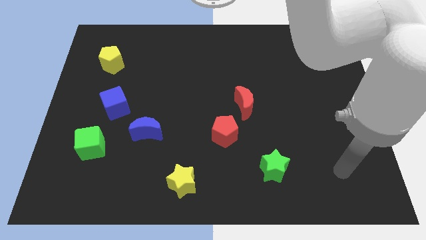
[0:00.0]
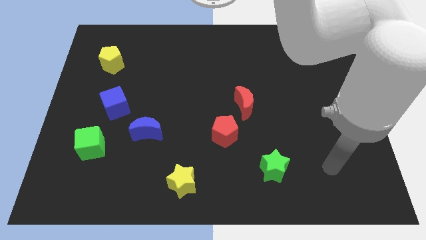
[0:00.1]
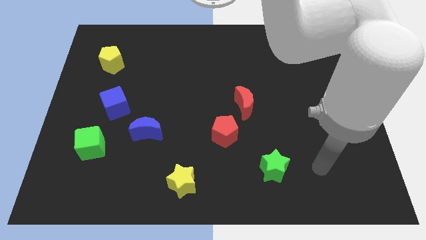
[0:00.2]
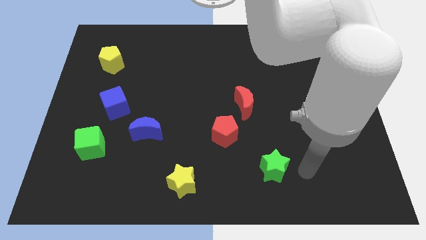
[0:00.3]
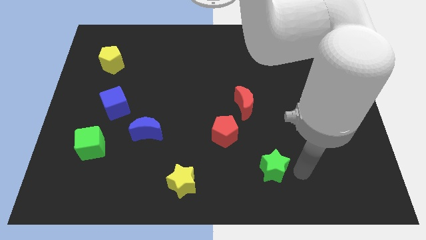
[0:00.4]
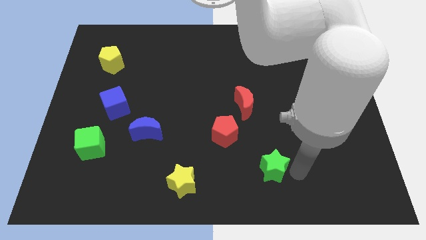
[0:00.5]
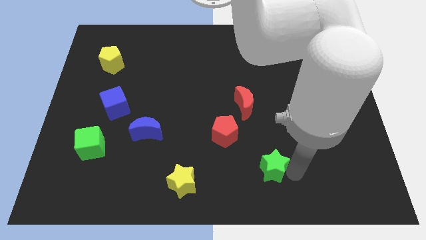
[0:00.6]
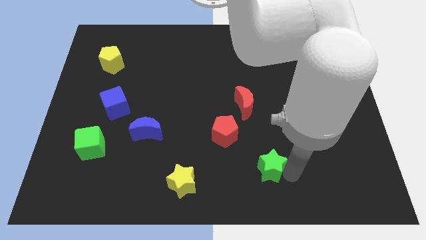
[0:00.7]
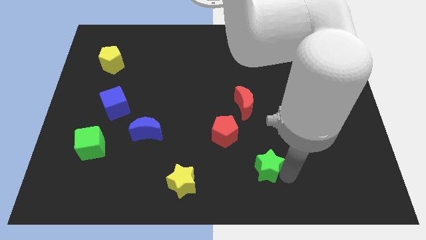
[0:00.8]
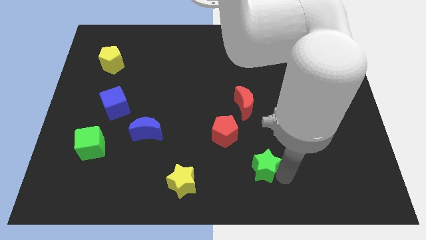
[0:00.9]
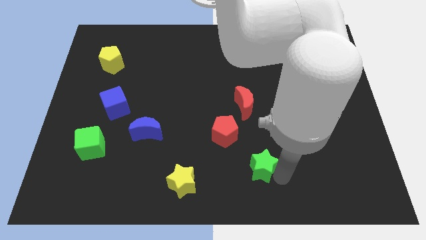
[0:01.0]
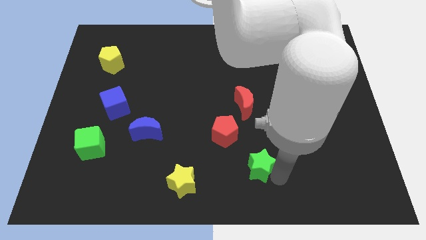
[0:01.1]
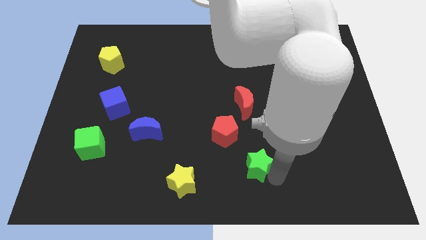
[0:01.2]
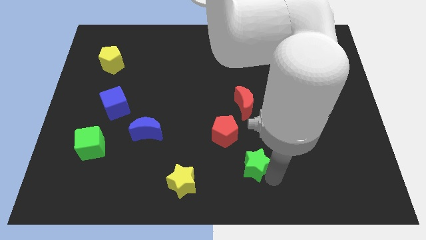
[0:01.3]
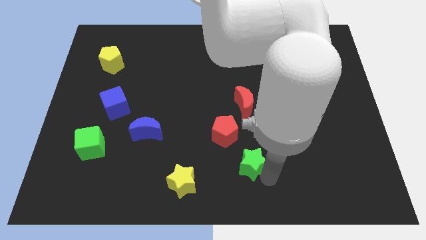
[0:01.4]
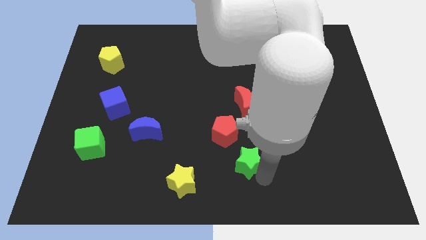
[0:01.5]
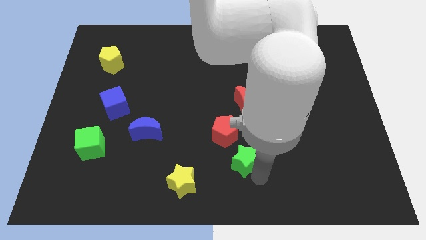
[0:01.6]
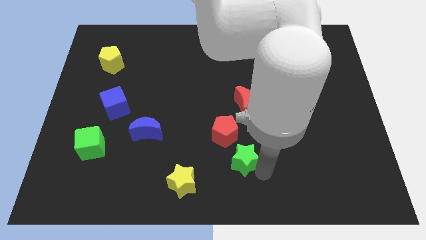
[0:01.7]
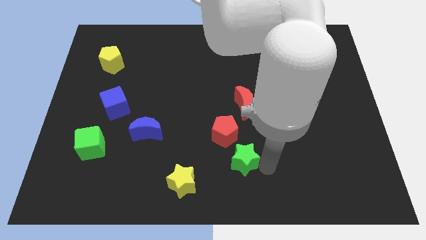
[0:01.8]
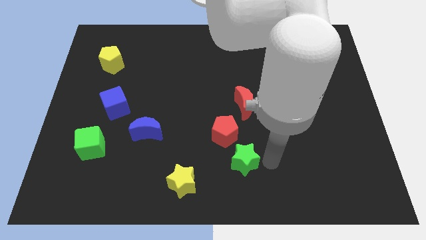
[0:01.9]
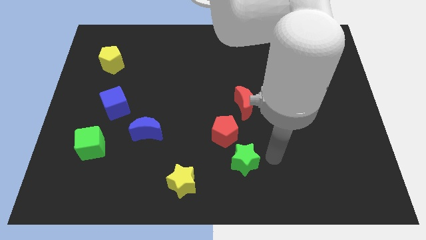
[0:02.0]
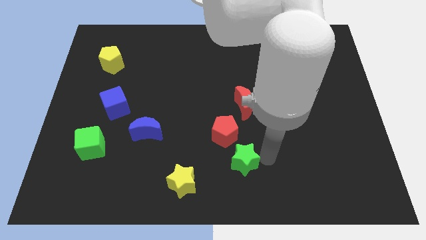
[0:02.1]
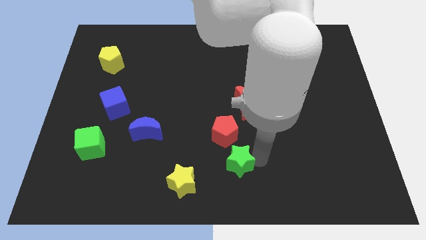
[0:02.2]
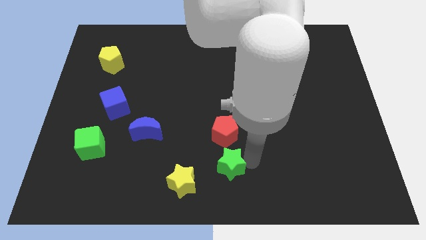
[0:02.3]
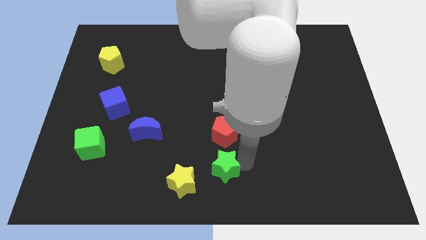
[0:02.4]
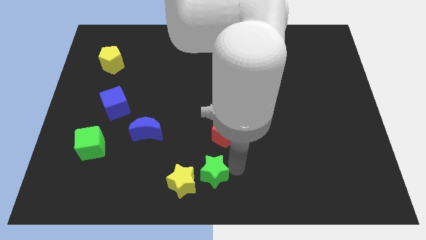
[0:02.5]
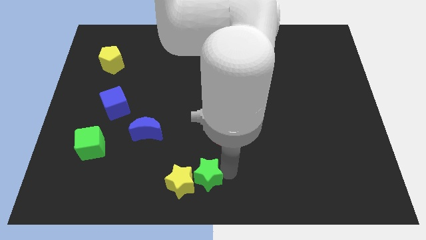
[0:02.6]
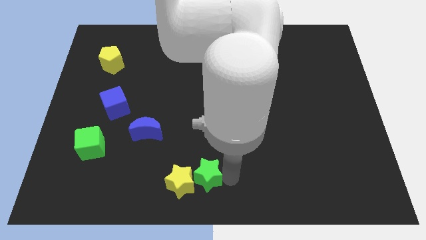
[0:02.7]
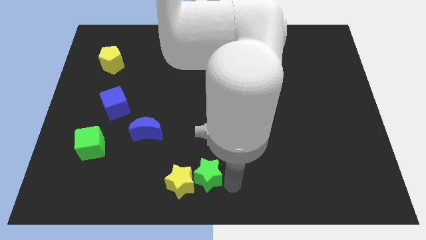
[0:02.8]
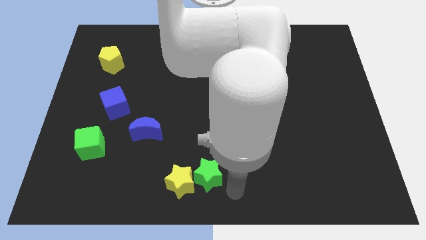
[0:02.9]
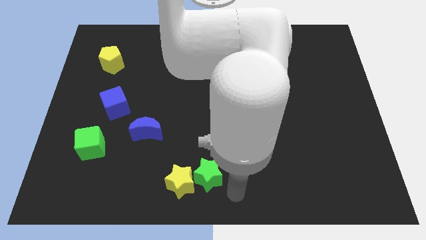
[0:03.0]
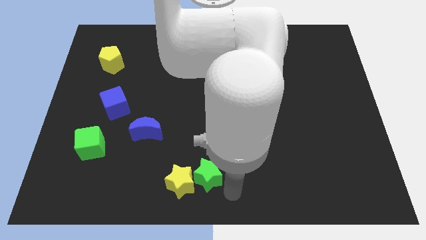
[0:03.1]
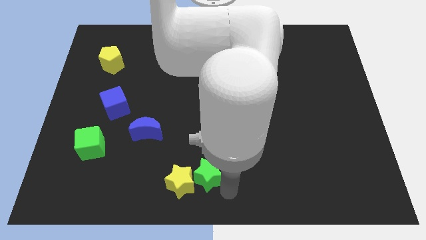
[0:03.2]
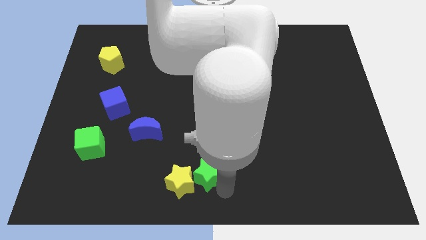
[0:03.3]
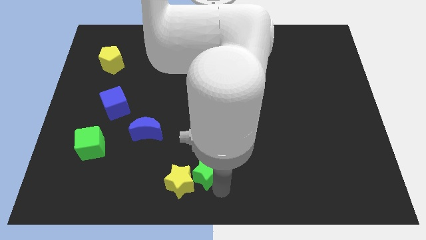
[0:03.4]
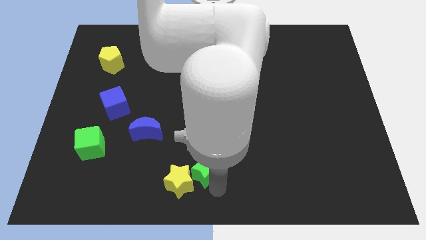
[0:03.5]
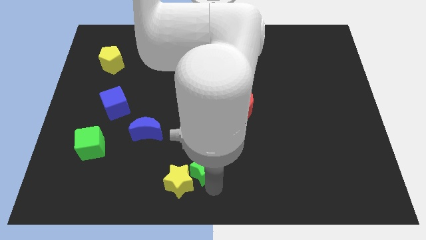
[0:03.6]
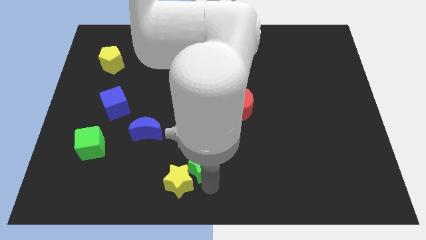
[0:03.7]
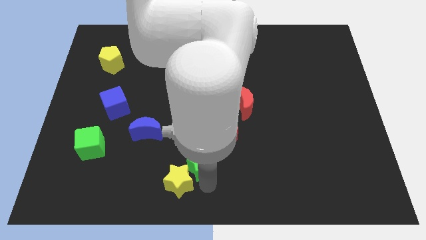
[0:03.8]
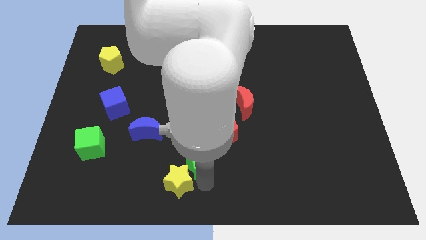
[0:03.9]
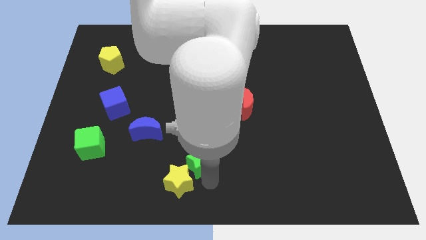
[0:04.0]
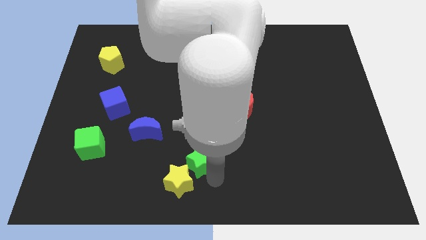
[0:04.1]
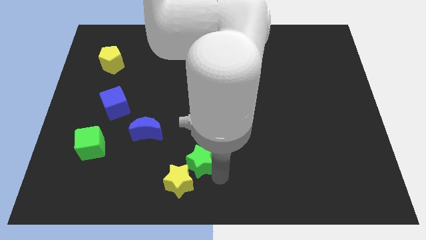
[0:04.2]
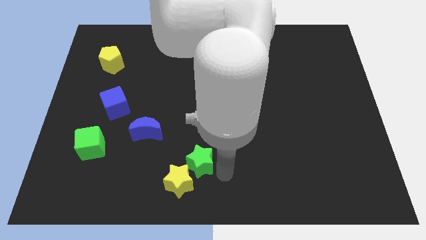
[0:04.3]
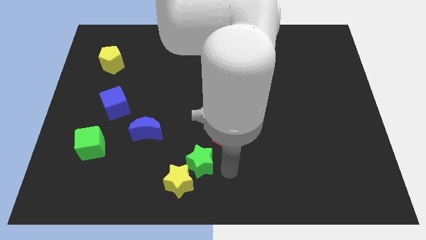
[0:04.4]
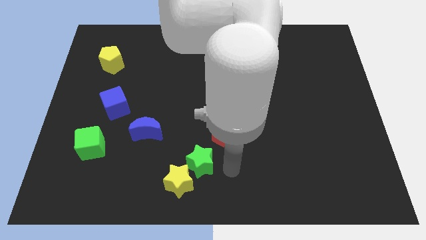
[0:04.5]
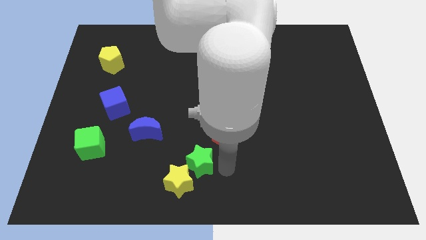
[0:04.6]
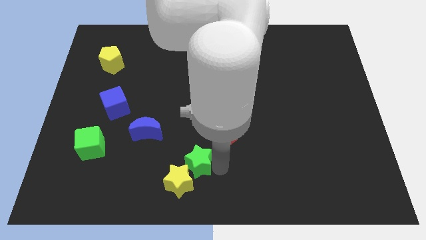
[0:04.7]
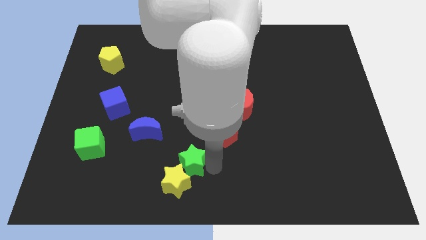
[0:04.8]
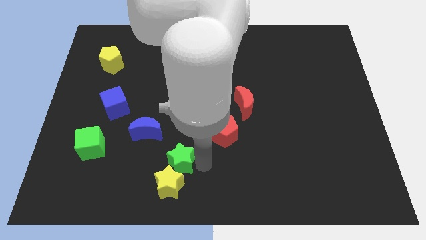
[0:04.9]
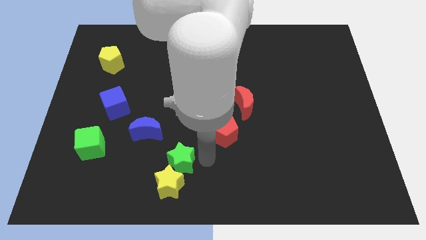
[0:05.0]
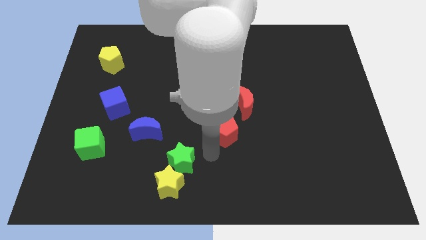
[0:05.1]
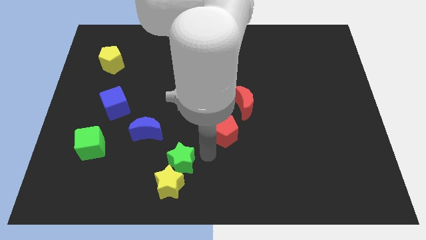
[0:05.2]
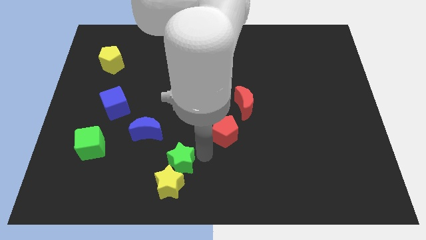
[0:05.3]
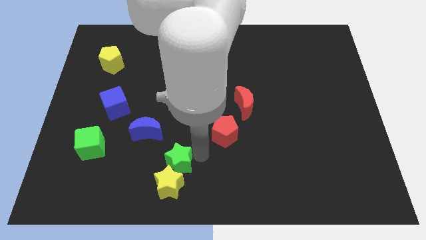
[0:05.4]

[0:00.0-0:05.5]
move the green star left

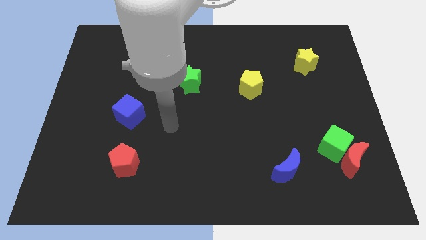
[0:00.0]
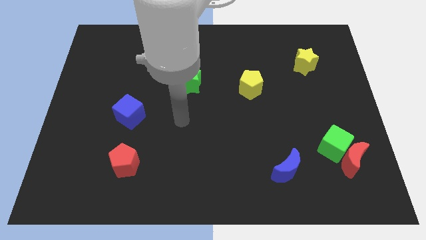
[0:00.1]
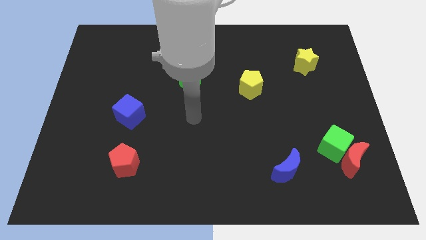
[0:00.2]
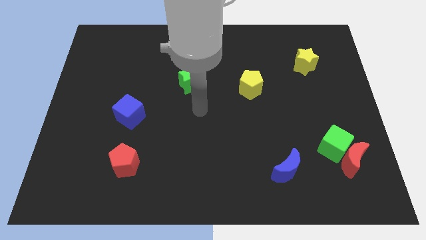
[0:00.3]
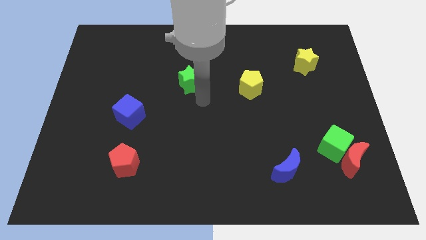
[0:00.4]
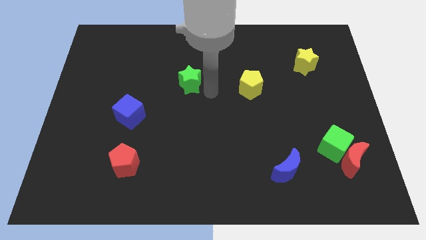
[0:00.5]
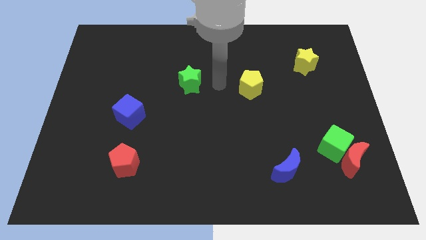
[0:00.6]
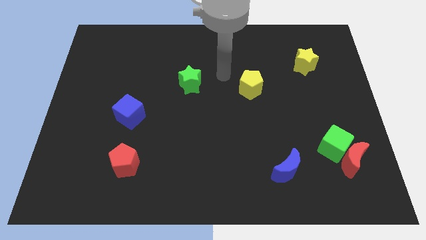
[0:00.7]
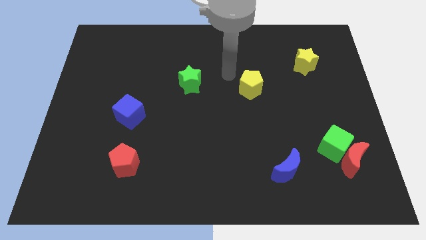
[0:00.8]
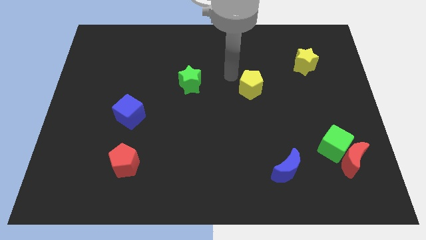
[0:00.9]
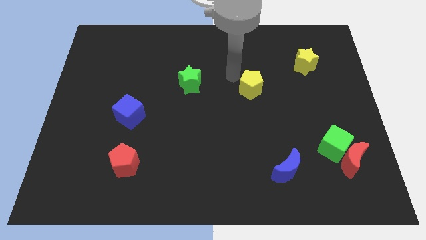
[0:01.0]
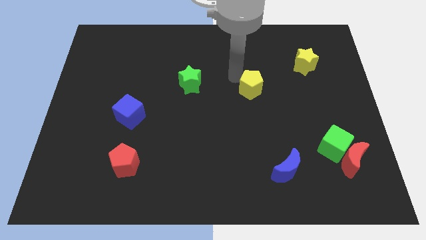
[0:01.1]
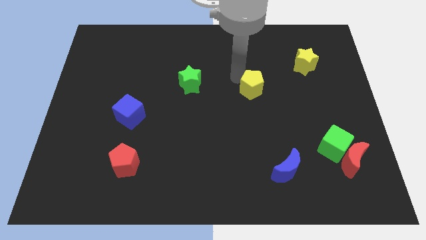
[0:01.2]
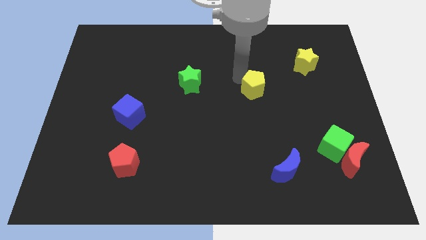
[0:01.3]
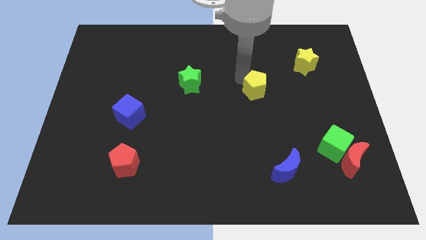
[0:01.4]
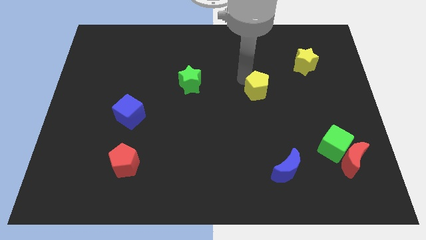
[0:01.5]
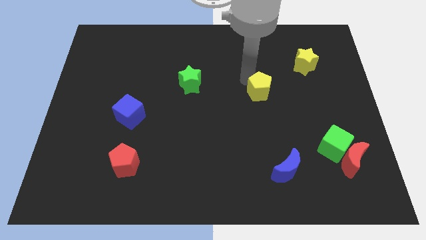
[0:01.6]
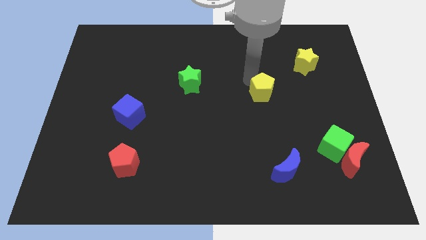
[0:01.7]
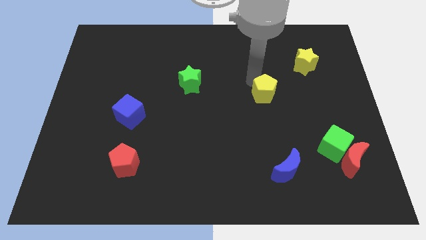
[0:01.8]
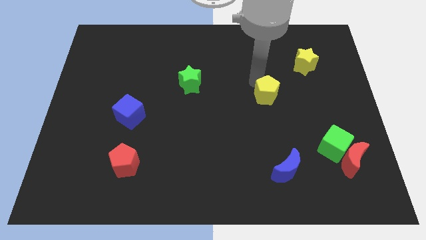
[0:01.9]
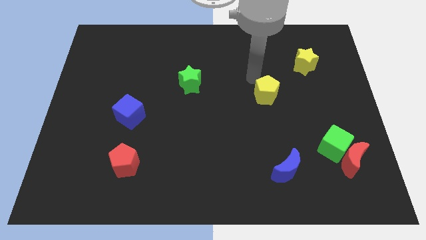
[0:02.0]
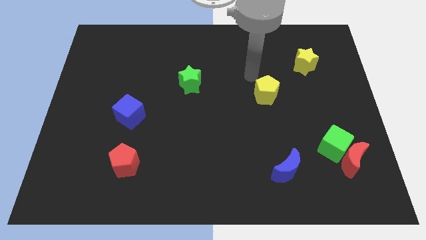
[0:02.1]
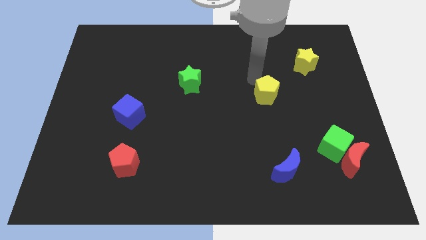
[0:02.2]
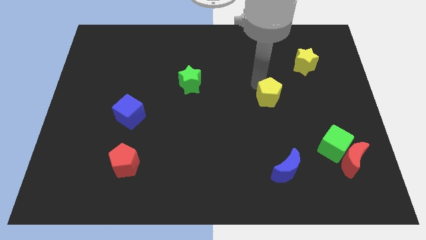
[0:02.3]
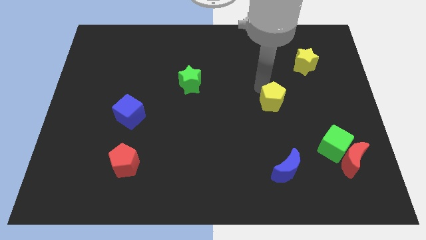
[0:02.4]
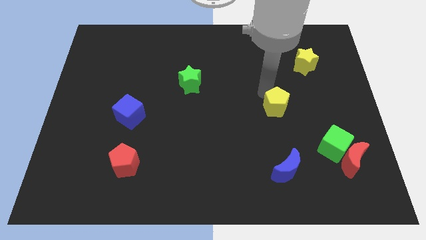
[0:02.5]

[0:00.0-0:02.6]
push the yellow pentagon diagonally downwards and to the right somewhat

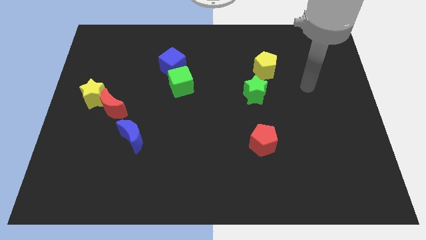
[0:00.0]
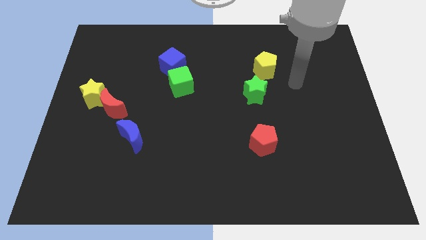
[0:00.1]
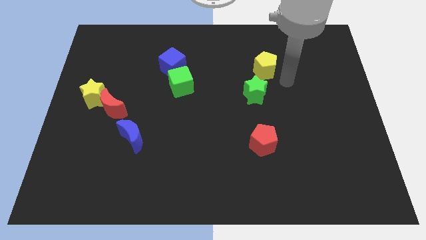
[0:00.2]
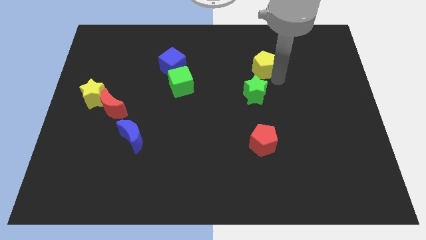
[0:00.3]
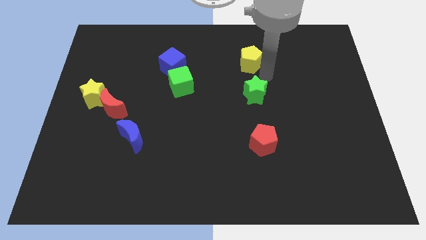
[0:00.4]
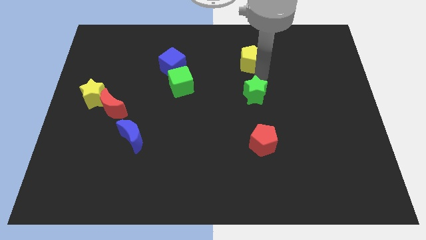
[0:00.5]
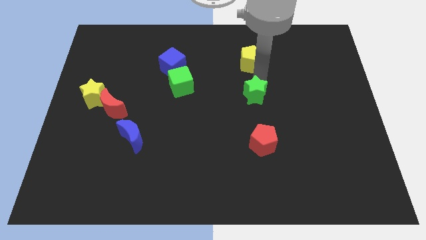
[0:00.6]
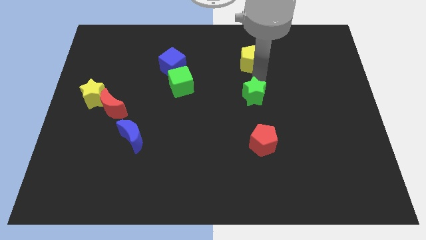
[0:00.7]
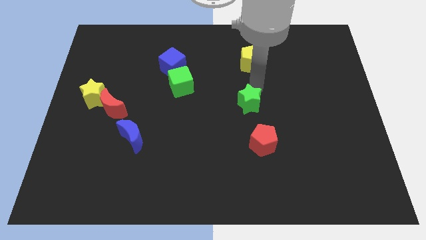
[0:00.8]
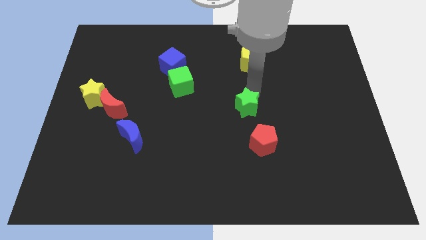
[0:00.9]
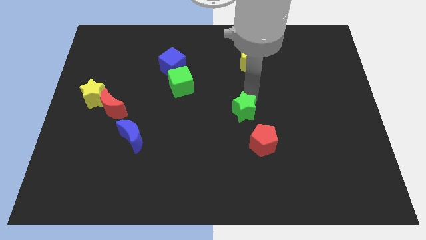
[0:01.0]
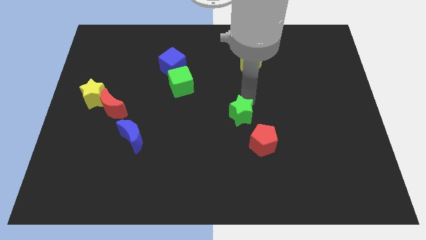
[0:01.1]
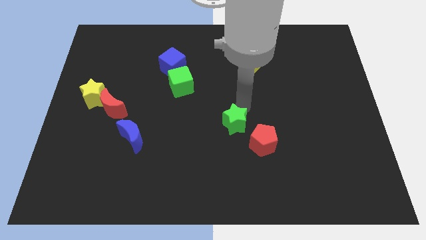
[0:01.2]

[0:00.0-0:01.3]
slide the green star slightly downwards
